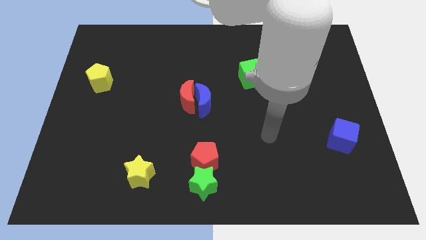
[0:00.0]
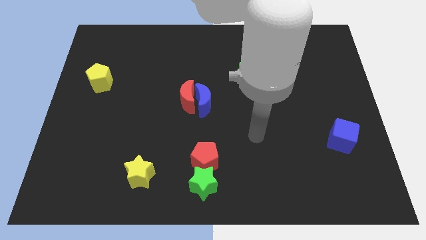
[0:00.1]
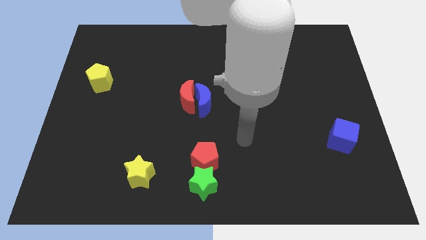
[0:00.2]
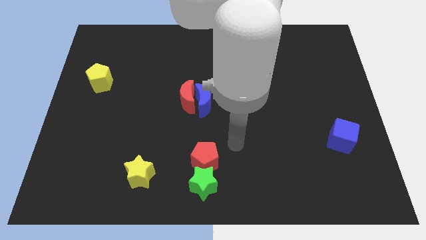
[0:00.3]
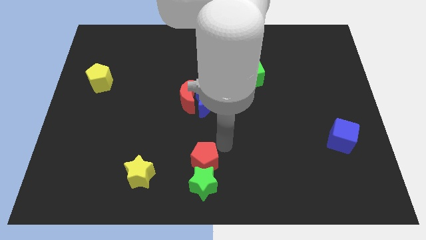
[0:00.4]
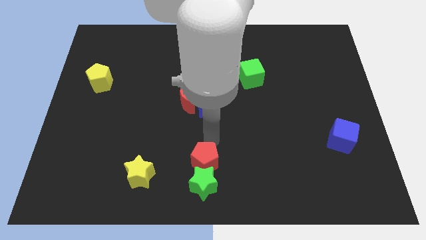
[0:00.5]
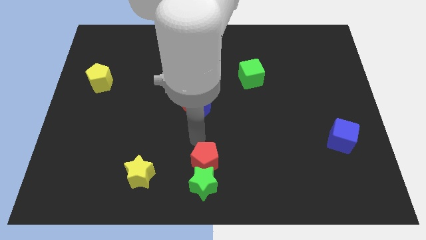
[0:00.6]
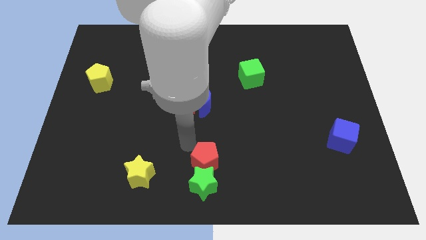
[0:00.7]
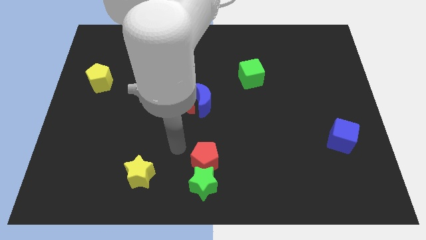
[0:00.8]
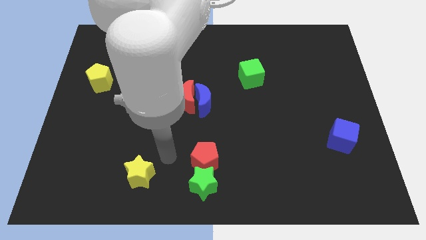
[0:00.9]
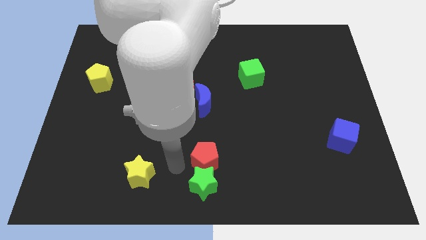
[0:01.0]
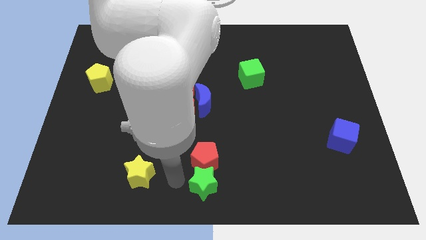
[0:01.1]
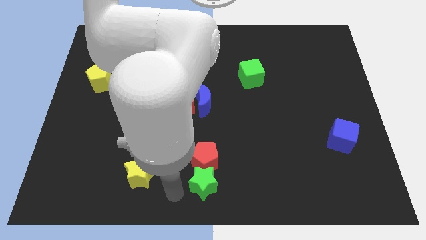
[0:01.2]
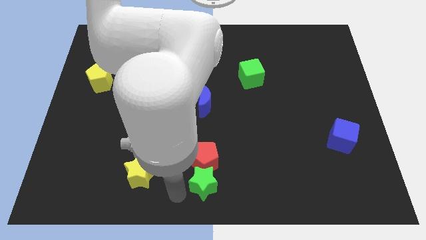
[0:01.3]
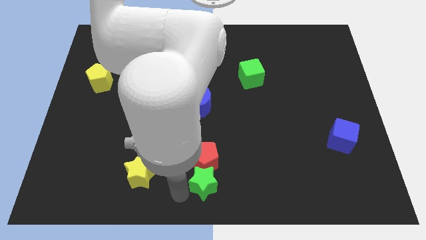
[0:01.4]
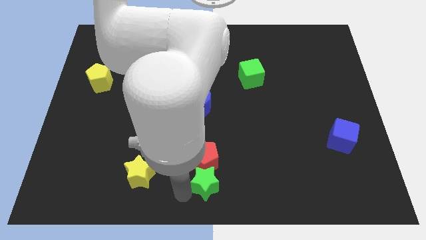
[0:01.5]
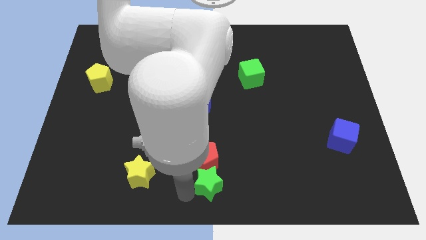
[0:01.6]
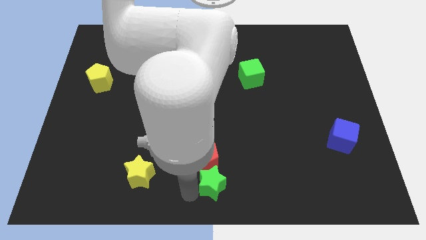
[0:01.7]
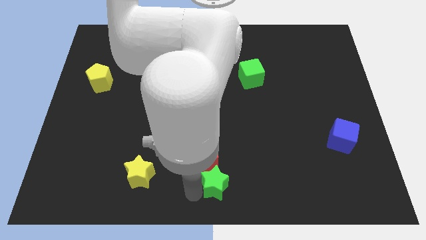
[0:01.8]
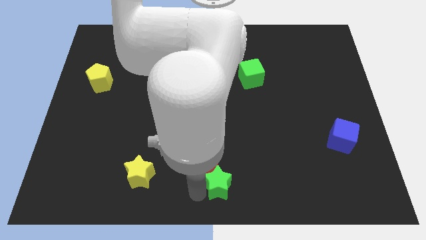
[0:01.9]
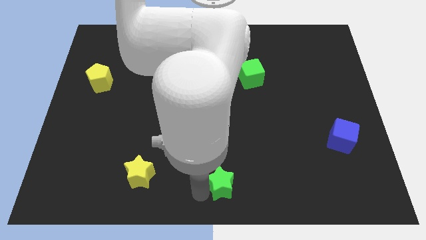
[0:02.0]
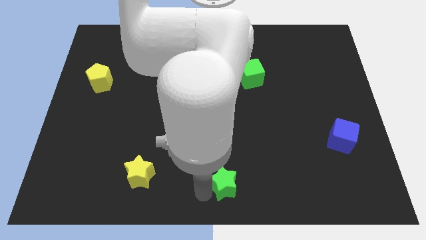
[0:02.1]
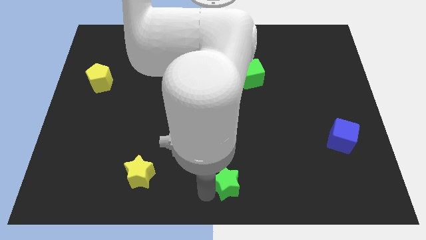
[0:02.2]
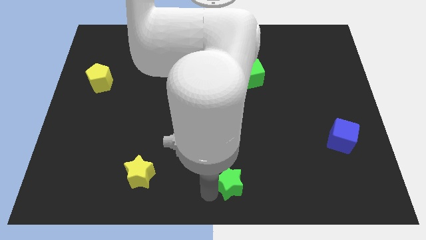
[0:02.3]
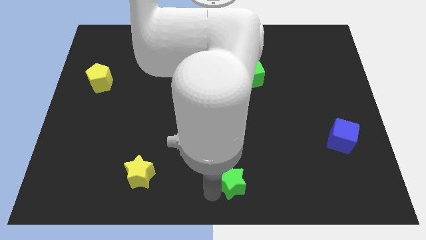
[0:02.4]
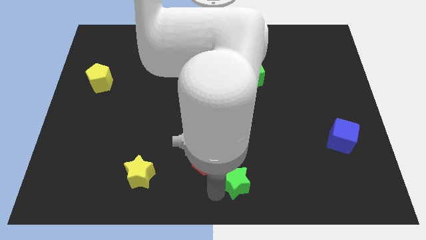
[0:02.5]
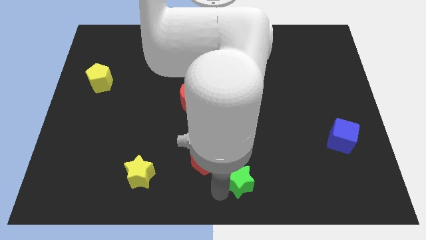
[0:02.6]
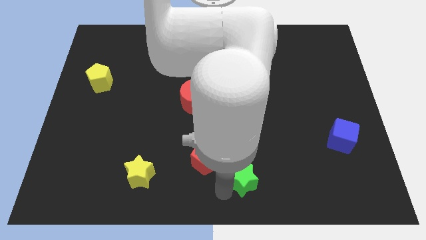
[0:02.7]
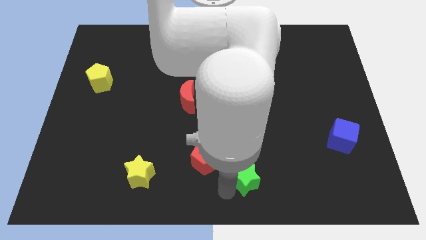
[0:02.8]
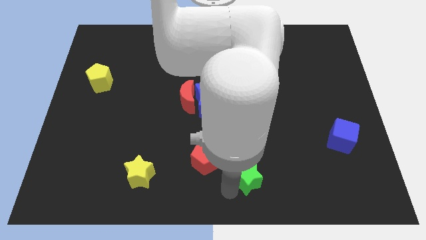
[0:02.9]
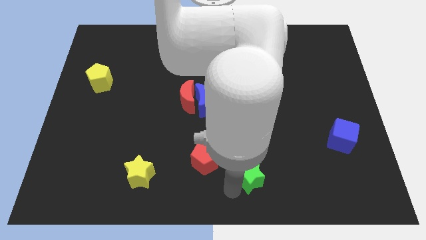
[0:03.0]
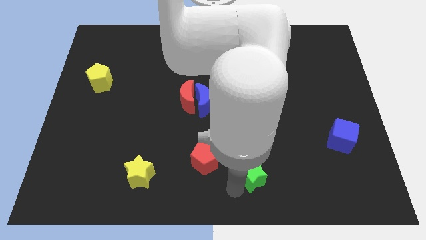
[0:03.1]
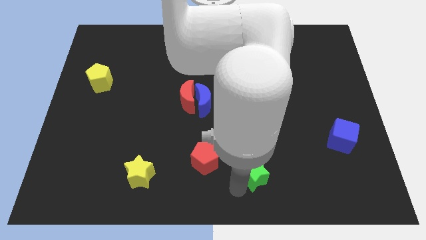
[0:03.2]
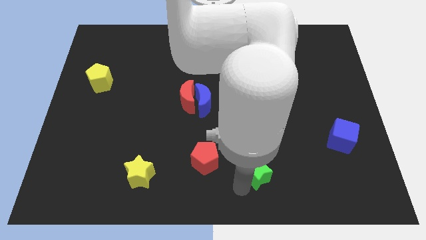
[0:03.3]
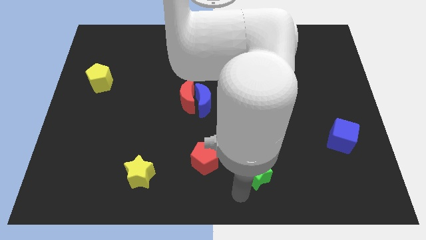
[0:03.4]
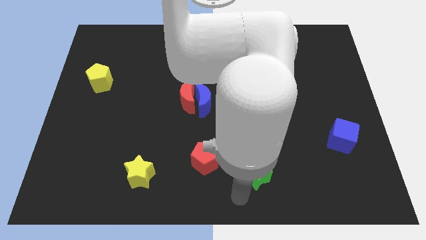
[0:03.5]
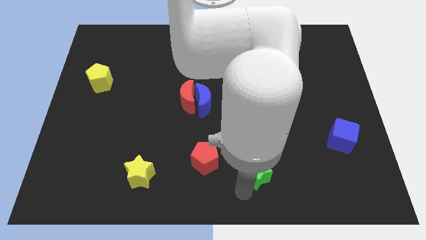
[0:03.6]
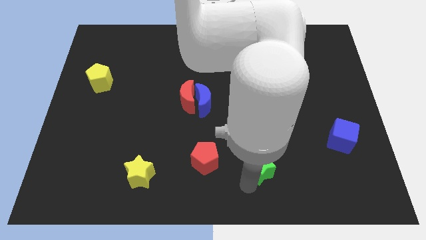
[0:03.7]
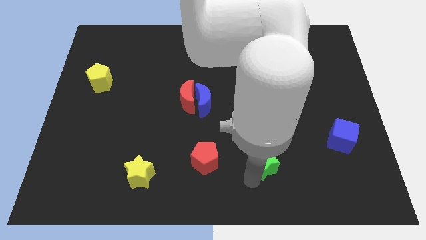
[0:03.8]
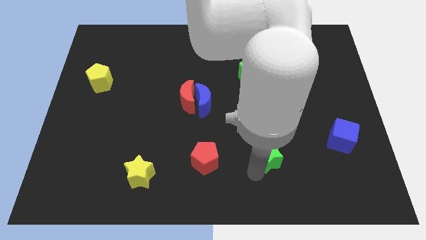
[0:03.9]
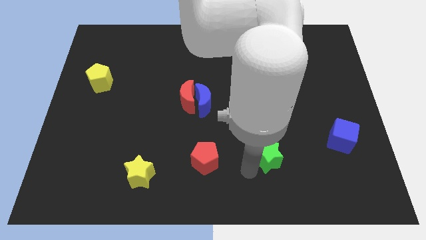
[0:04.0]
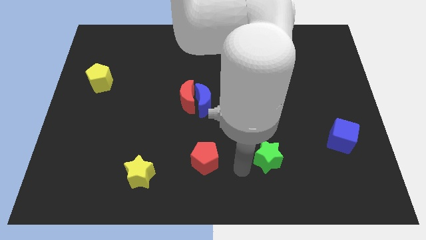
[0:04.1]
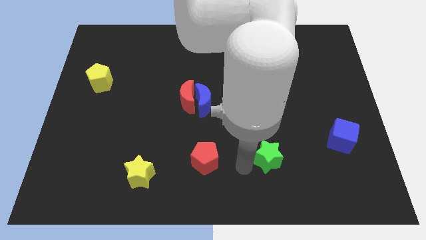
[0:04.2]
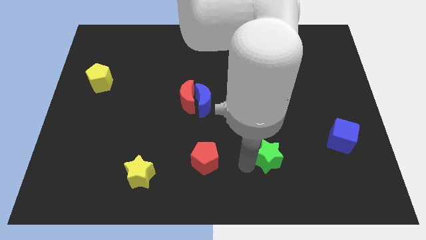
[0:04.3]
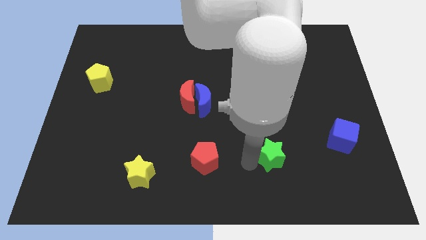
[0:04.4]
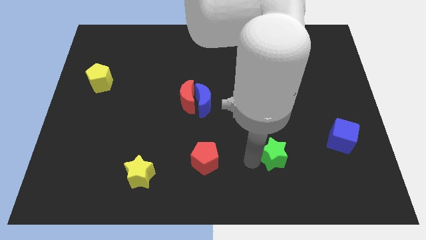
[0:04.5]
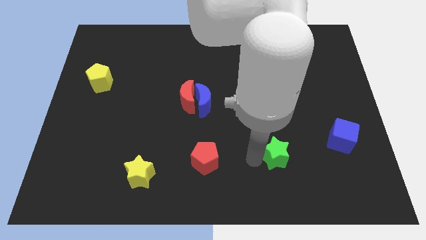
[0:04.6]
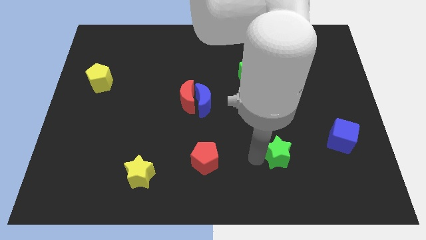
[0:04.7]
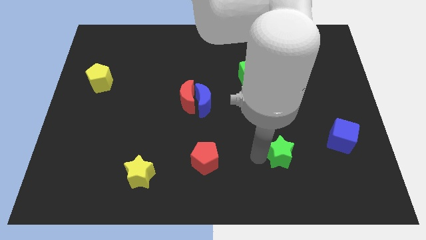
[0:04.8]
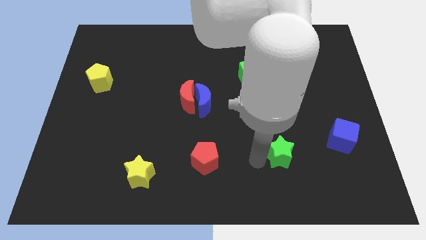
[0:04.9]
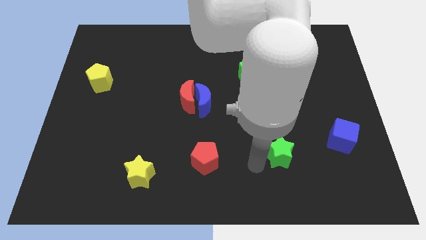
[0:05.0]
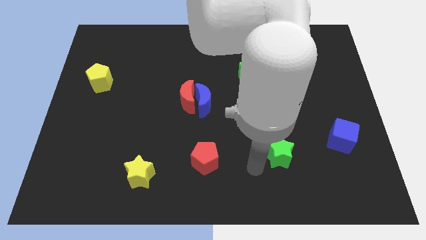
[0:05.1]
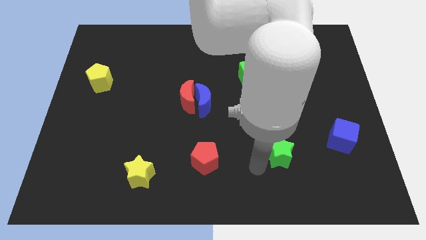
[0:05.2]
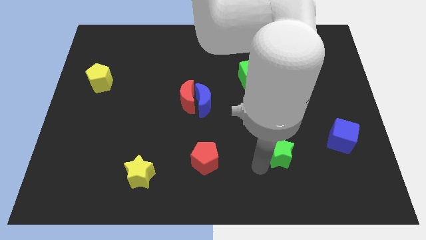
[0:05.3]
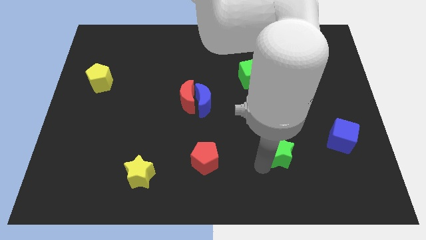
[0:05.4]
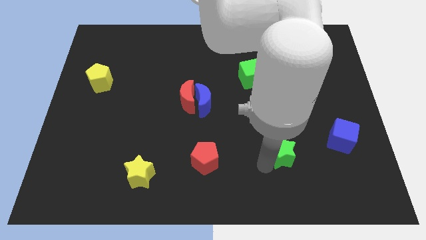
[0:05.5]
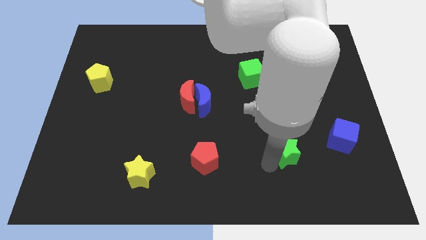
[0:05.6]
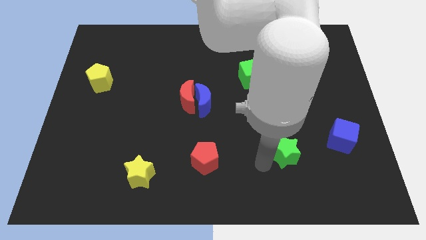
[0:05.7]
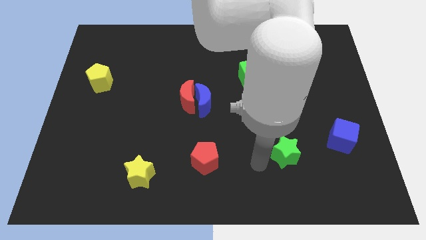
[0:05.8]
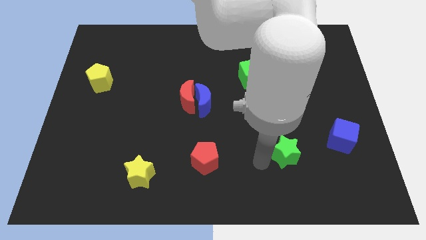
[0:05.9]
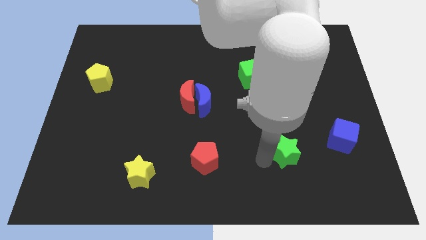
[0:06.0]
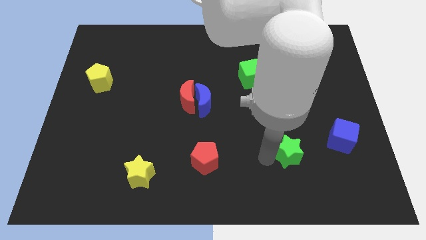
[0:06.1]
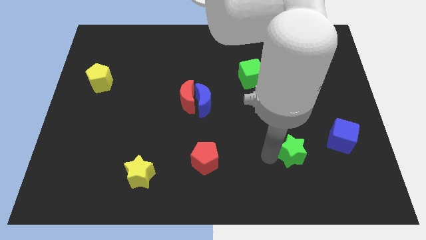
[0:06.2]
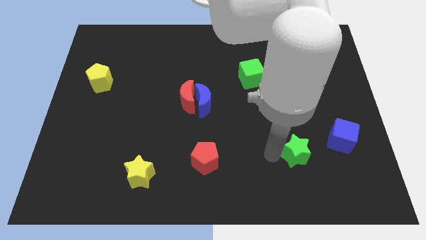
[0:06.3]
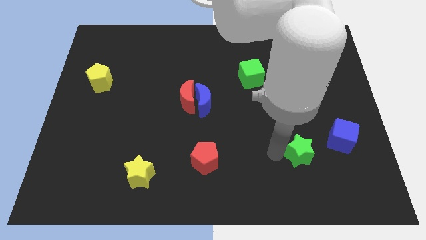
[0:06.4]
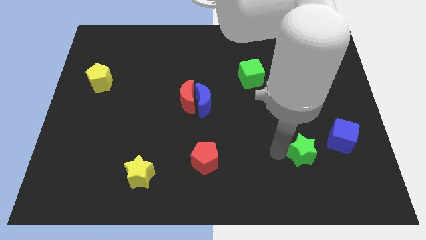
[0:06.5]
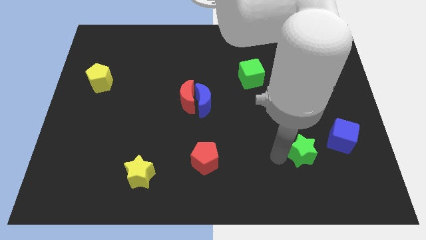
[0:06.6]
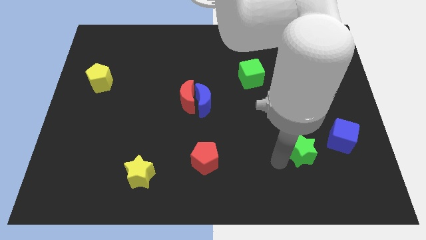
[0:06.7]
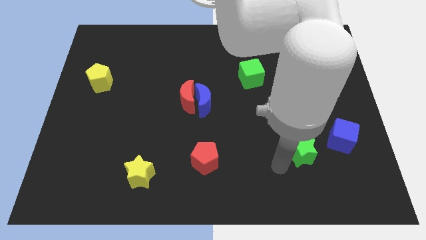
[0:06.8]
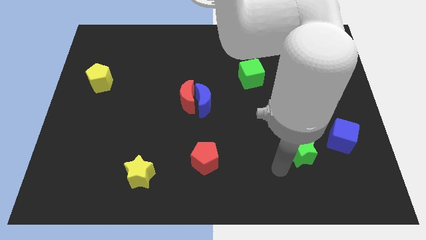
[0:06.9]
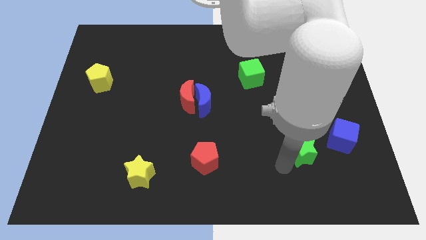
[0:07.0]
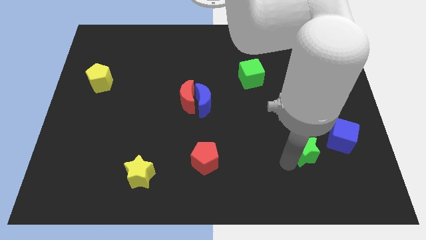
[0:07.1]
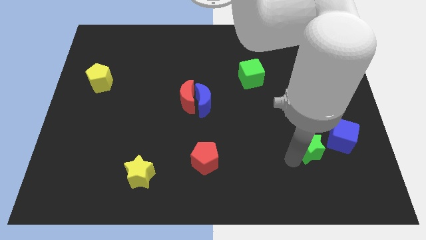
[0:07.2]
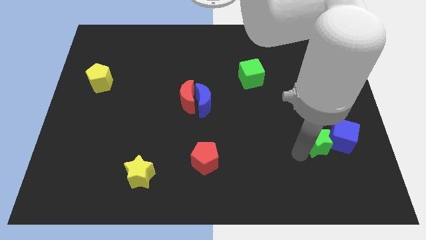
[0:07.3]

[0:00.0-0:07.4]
put the green star towards the blue cube
